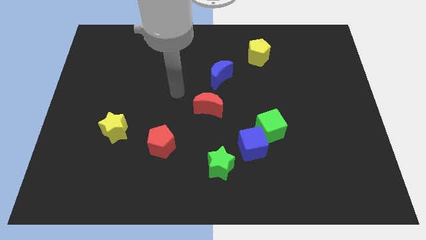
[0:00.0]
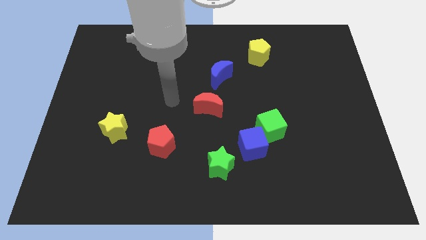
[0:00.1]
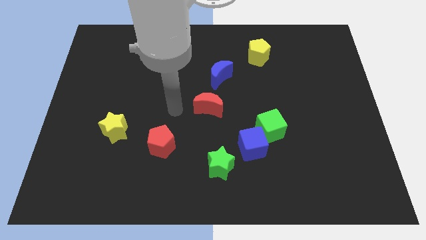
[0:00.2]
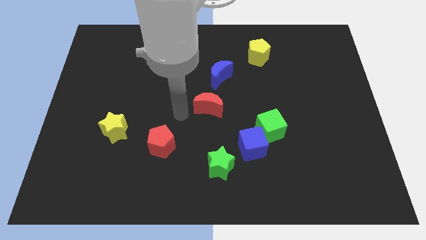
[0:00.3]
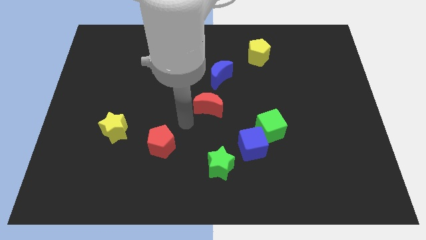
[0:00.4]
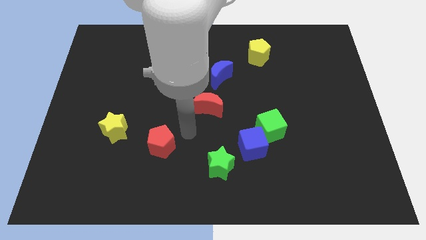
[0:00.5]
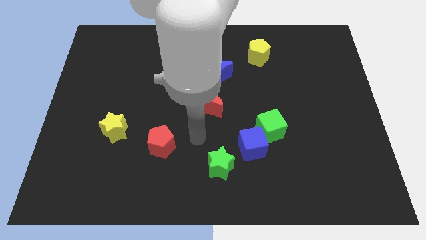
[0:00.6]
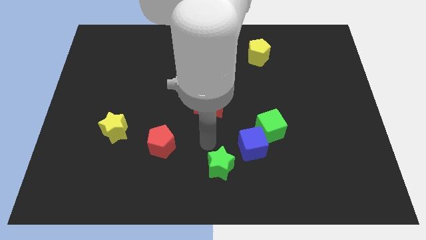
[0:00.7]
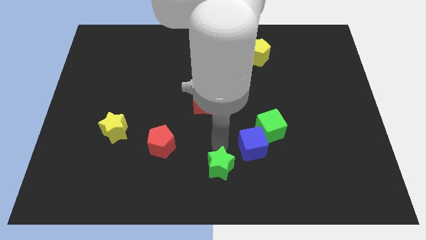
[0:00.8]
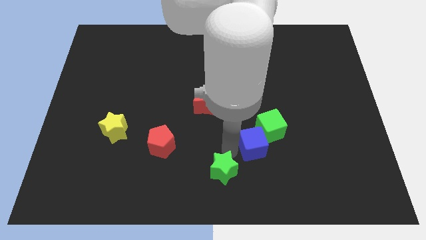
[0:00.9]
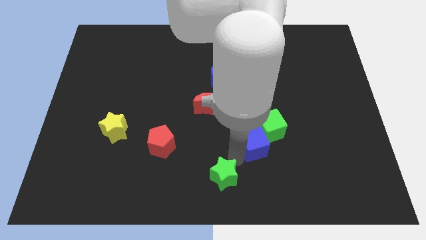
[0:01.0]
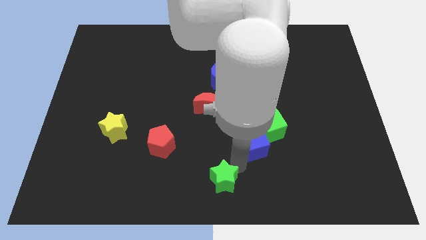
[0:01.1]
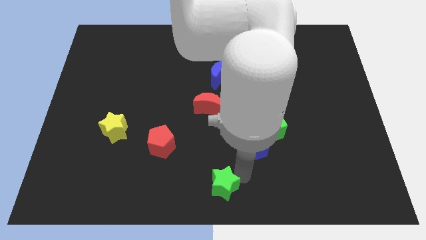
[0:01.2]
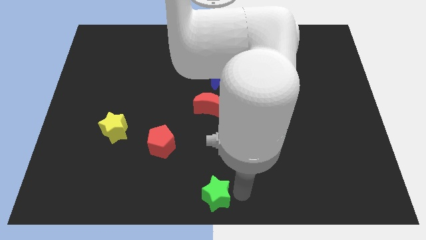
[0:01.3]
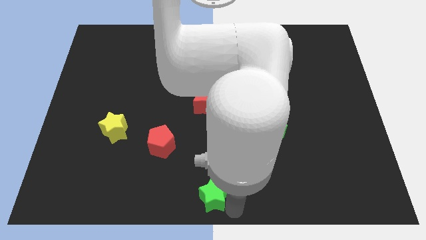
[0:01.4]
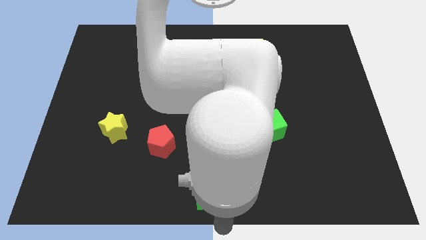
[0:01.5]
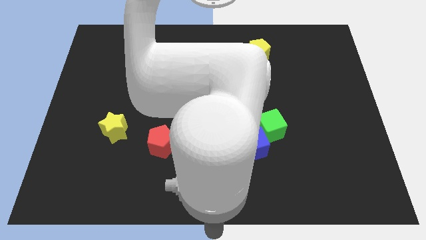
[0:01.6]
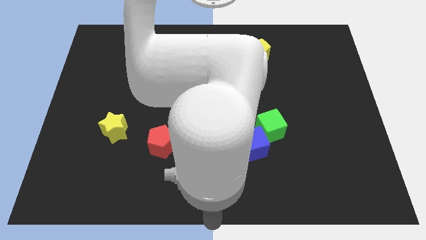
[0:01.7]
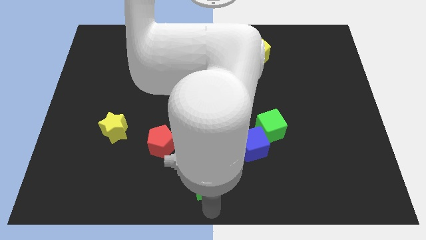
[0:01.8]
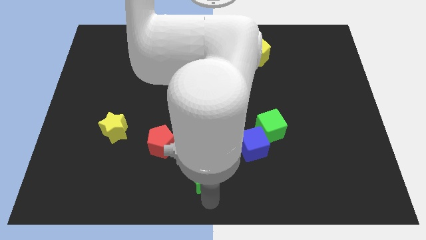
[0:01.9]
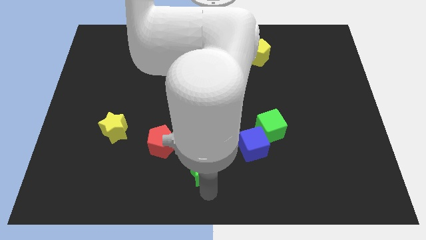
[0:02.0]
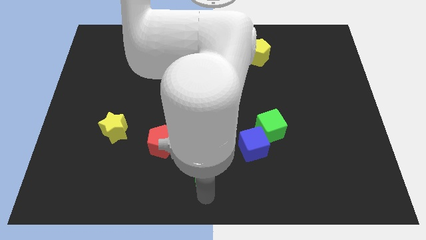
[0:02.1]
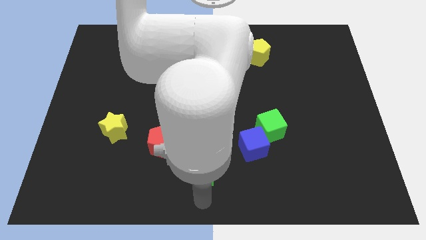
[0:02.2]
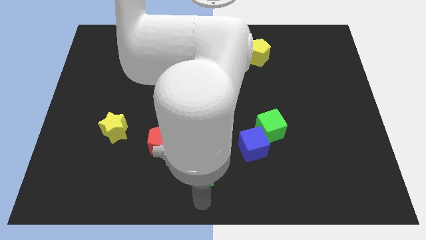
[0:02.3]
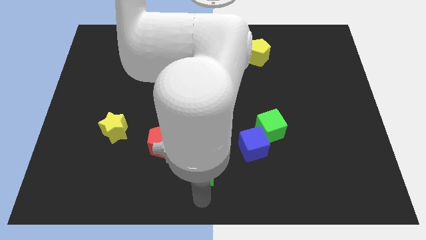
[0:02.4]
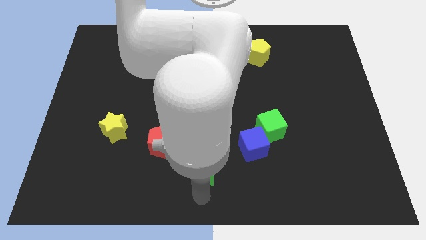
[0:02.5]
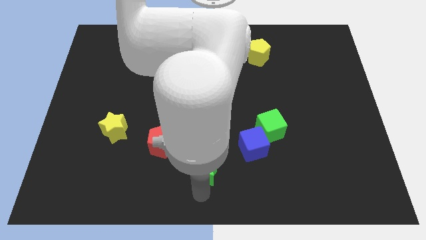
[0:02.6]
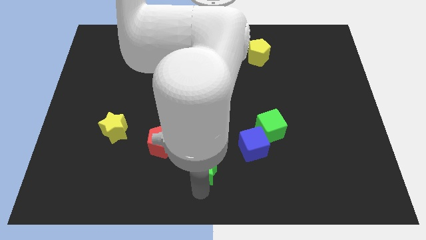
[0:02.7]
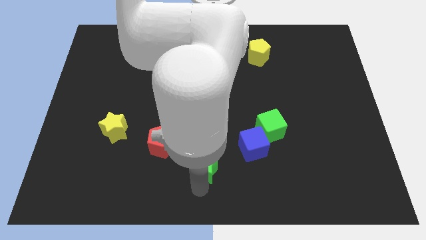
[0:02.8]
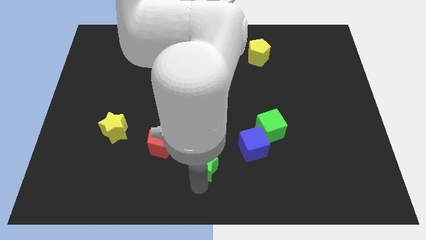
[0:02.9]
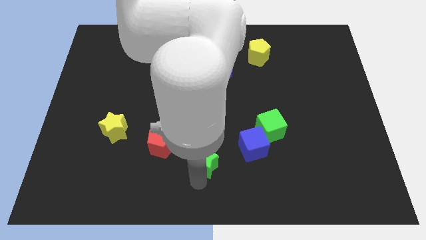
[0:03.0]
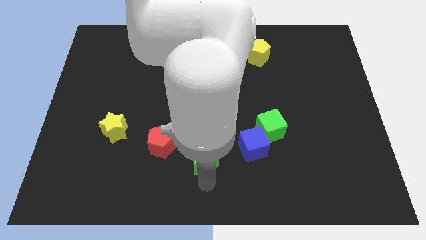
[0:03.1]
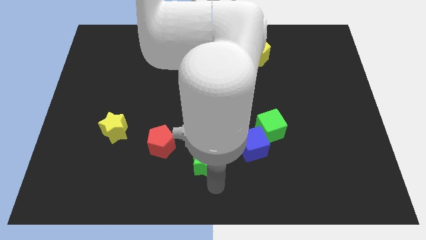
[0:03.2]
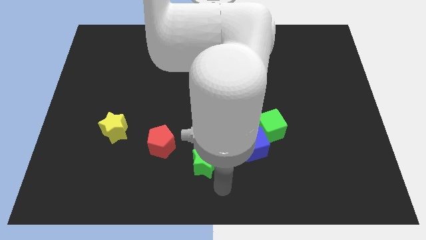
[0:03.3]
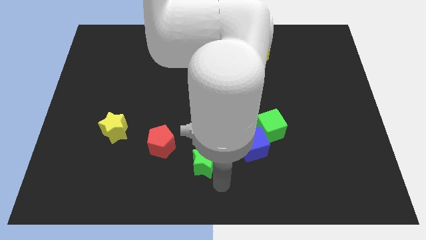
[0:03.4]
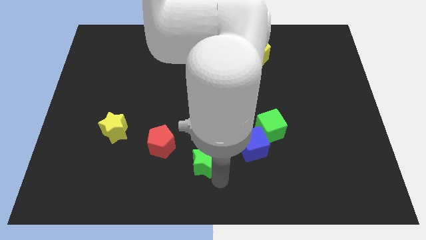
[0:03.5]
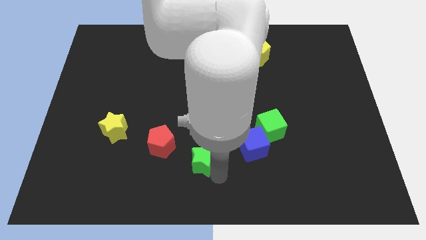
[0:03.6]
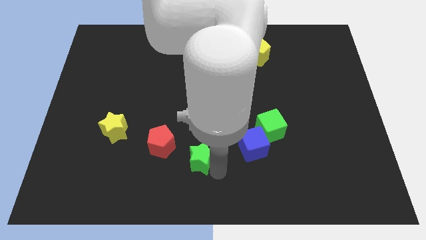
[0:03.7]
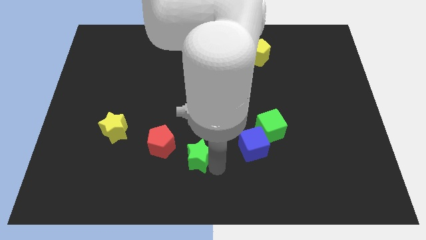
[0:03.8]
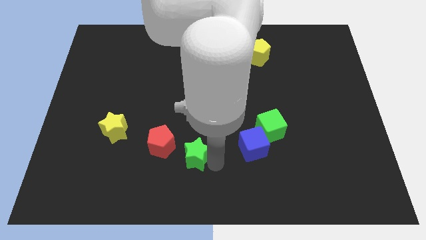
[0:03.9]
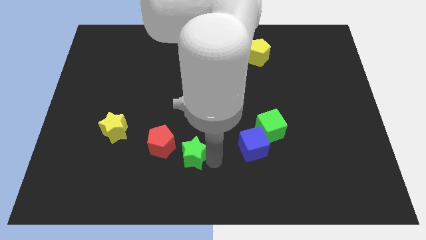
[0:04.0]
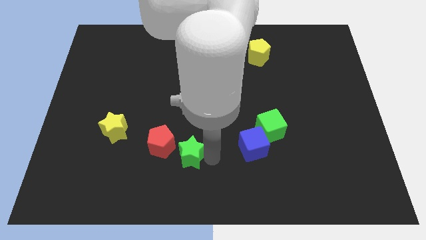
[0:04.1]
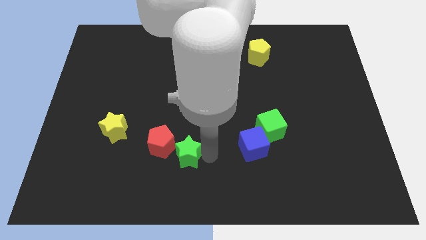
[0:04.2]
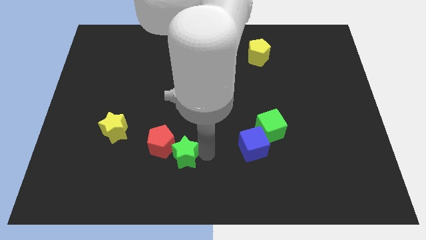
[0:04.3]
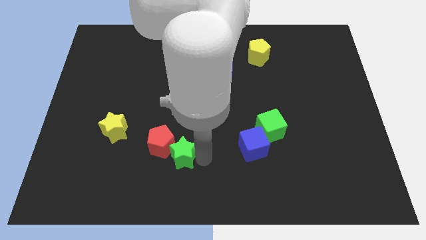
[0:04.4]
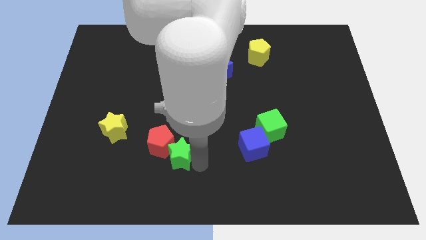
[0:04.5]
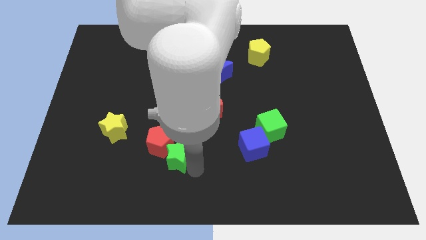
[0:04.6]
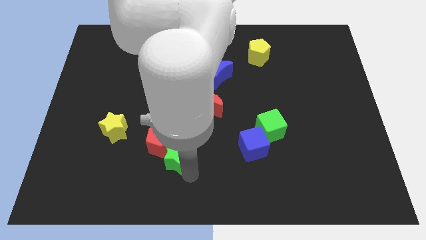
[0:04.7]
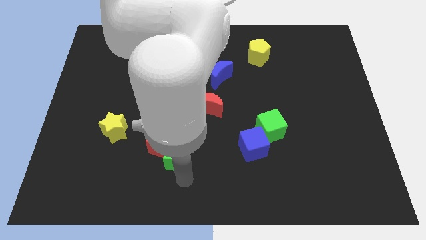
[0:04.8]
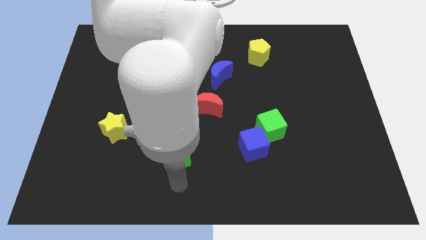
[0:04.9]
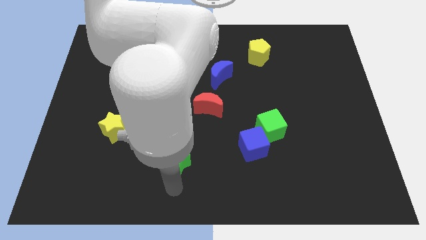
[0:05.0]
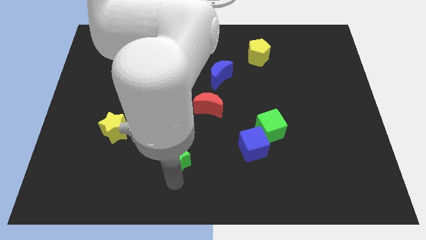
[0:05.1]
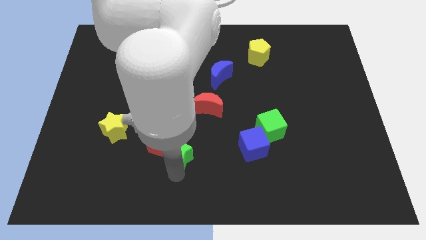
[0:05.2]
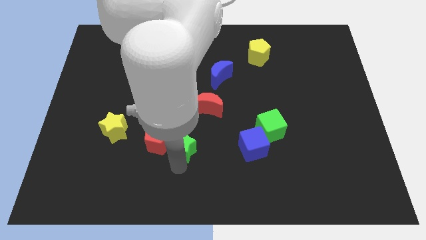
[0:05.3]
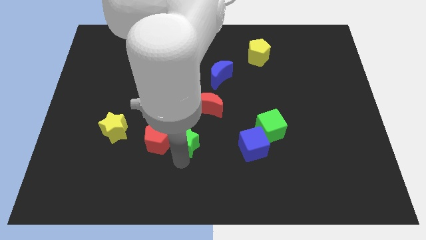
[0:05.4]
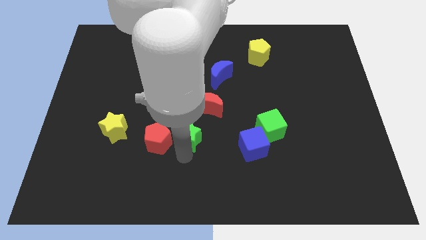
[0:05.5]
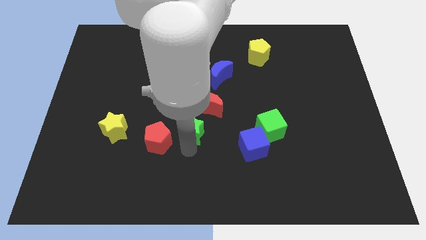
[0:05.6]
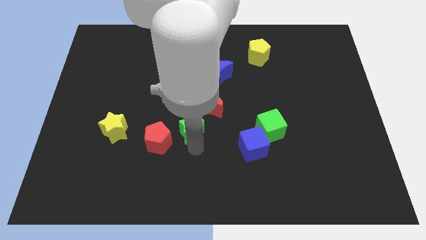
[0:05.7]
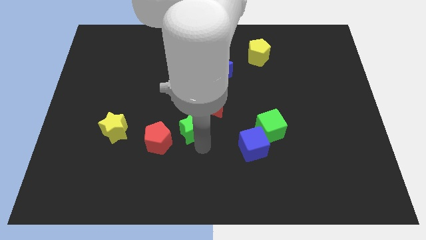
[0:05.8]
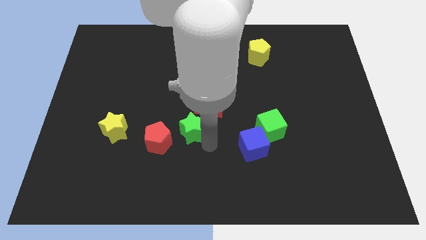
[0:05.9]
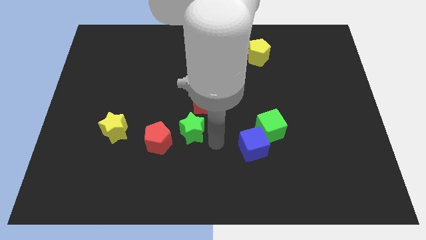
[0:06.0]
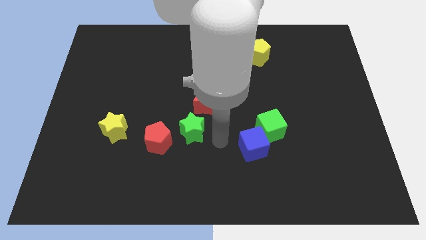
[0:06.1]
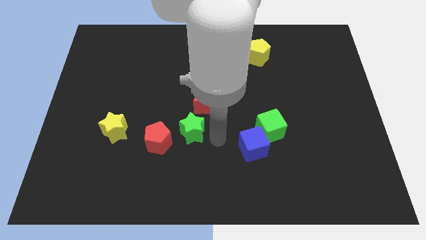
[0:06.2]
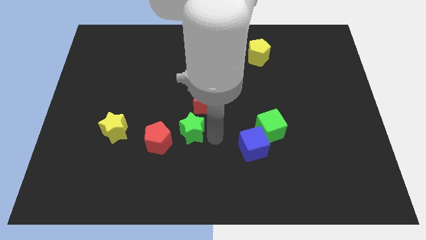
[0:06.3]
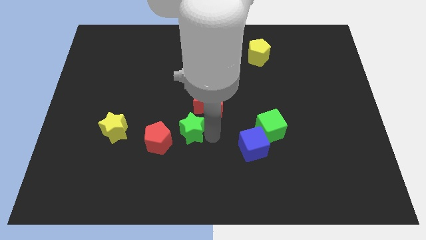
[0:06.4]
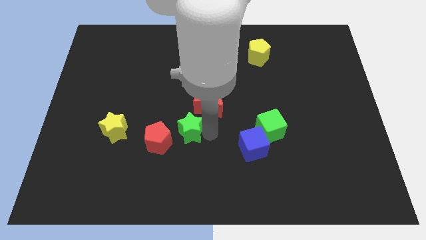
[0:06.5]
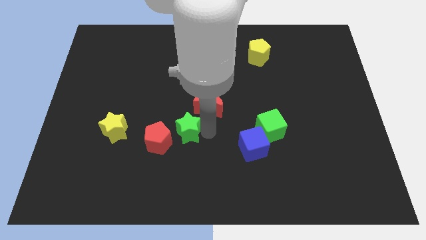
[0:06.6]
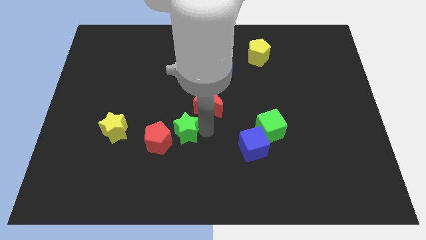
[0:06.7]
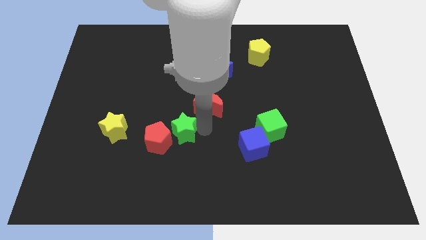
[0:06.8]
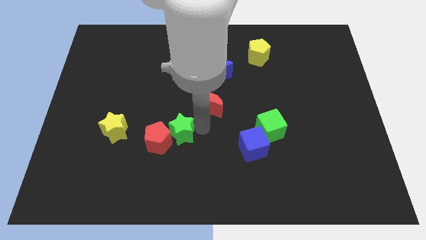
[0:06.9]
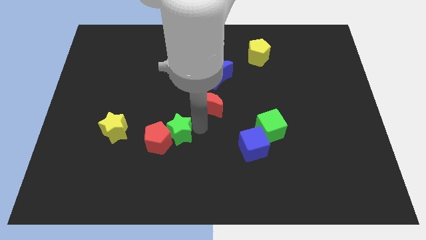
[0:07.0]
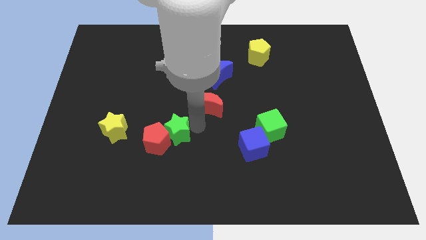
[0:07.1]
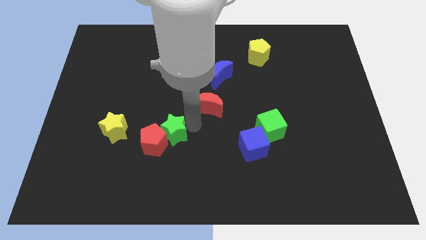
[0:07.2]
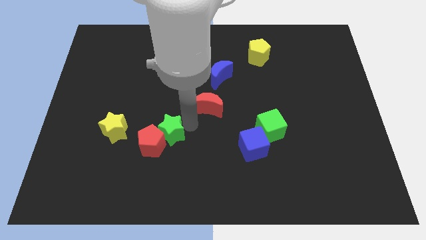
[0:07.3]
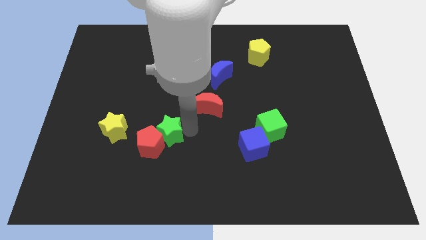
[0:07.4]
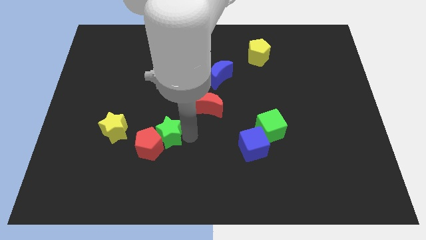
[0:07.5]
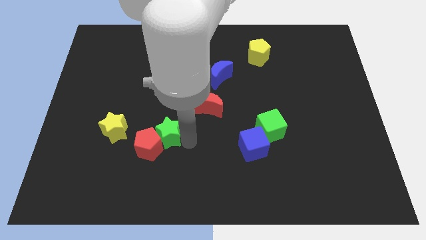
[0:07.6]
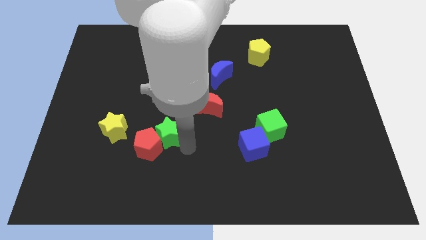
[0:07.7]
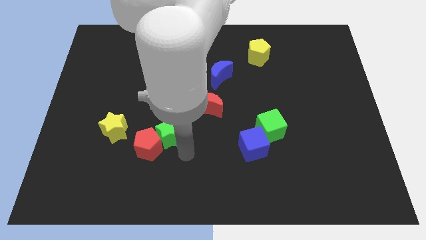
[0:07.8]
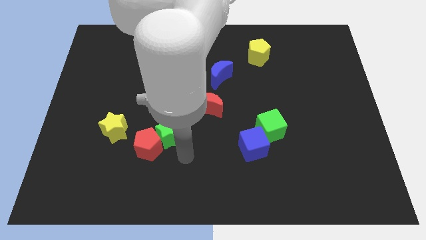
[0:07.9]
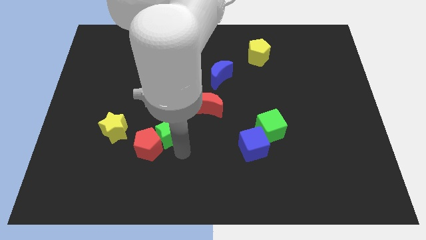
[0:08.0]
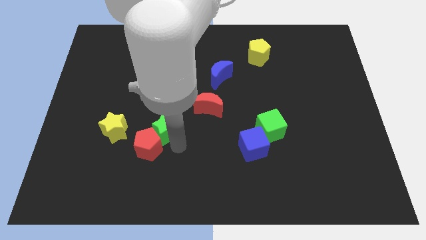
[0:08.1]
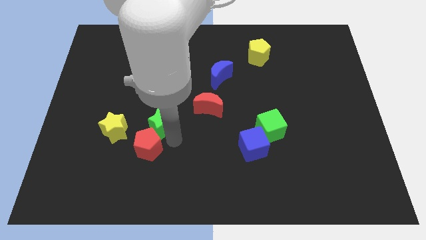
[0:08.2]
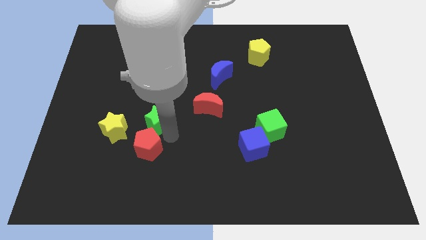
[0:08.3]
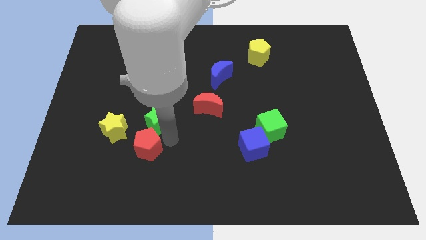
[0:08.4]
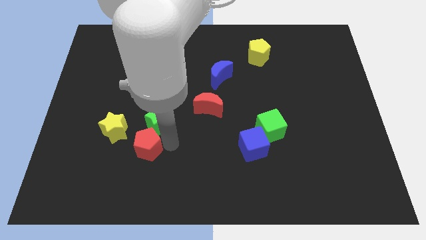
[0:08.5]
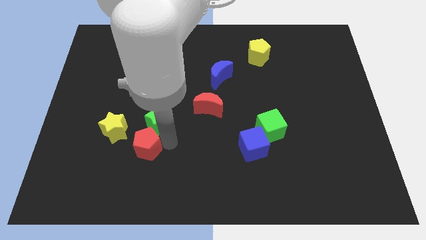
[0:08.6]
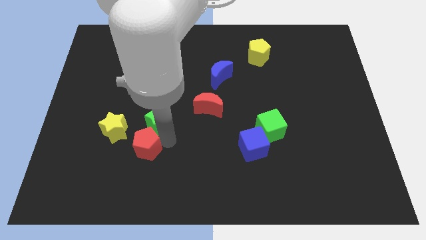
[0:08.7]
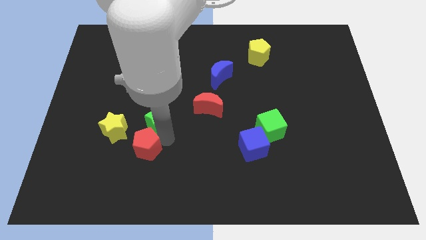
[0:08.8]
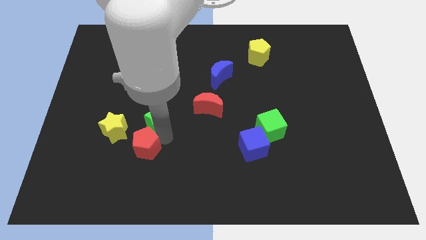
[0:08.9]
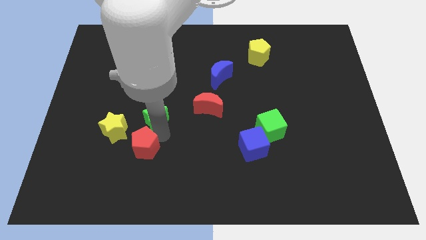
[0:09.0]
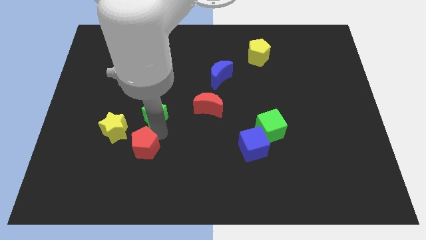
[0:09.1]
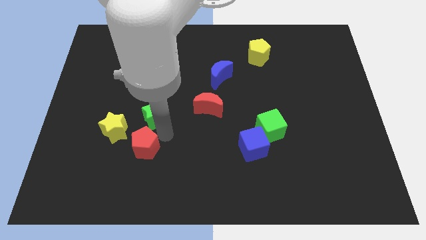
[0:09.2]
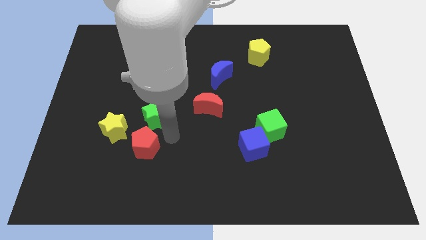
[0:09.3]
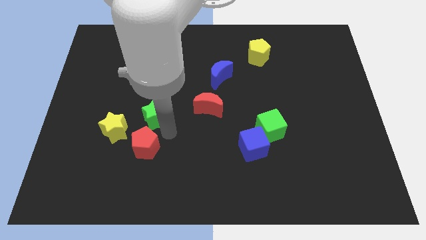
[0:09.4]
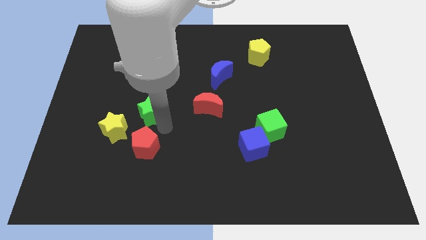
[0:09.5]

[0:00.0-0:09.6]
push the green star upwards and then to the left
